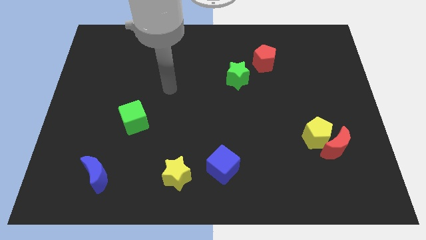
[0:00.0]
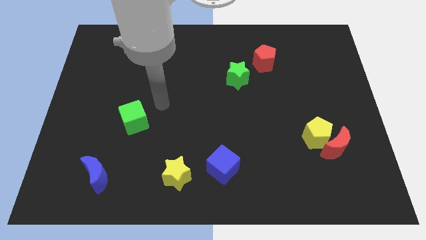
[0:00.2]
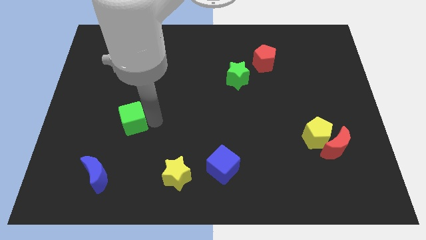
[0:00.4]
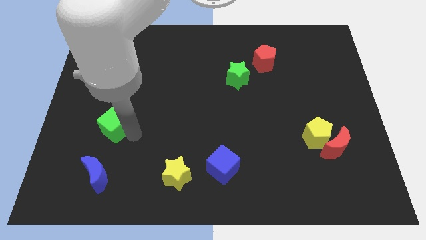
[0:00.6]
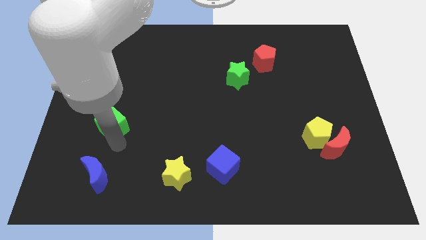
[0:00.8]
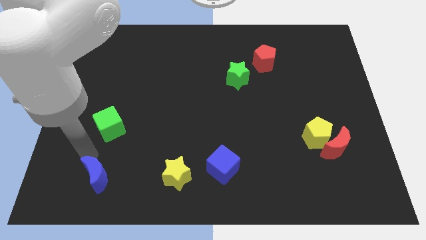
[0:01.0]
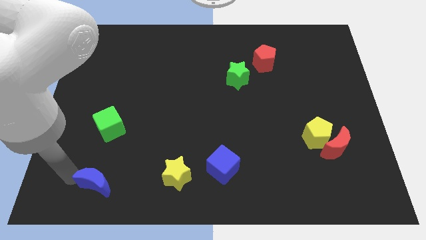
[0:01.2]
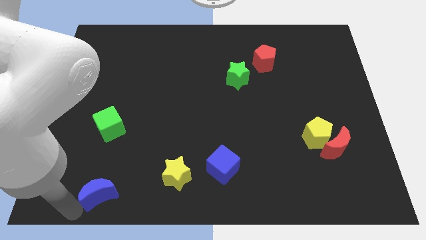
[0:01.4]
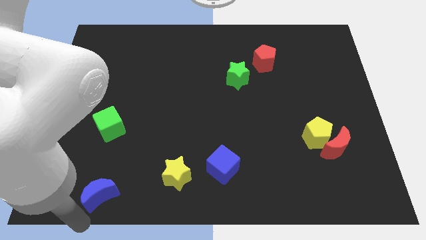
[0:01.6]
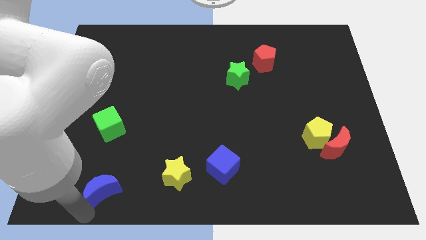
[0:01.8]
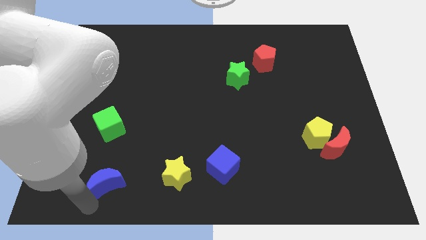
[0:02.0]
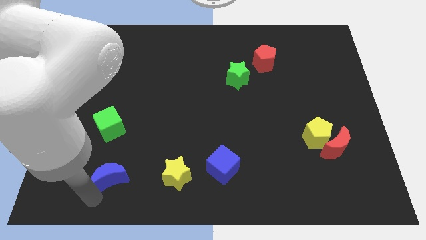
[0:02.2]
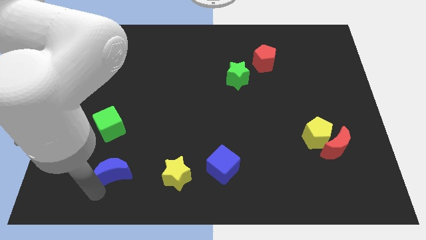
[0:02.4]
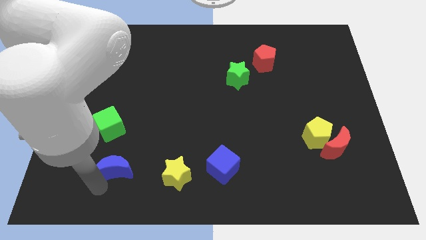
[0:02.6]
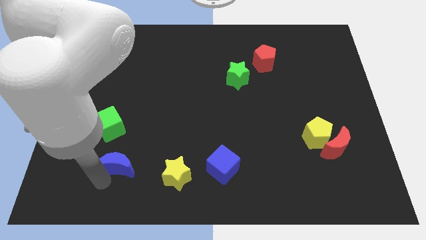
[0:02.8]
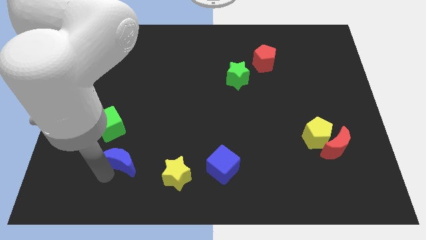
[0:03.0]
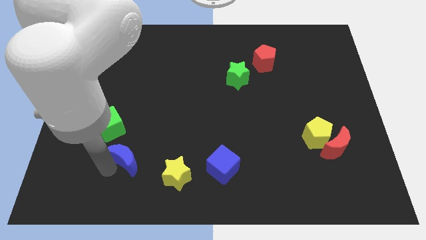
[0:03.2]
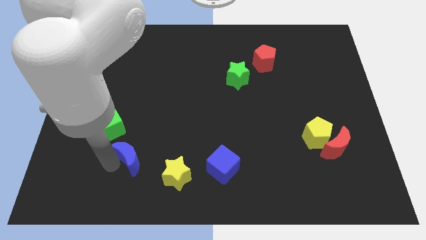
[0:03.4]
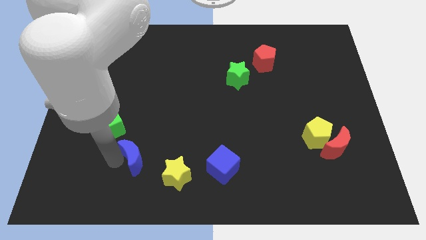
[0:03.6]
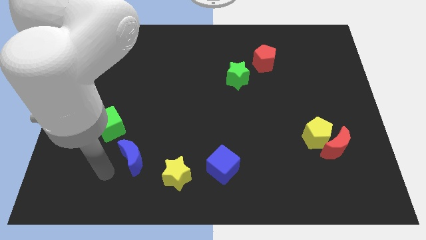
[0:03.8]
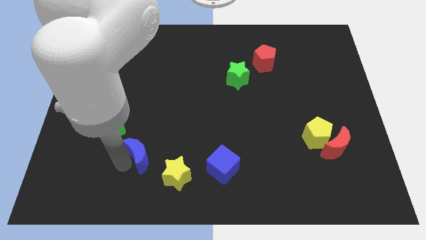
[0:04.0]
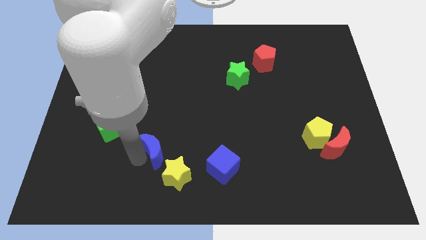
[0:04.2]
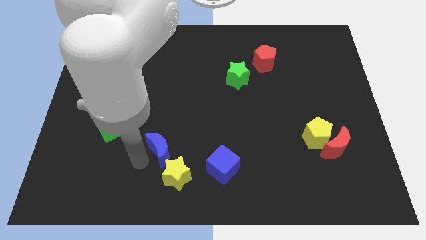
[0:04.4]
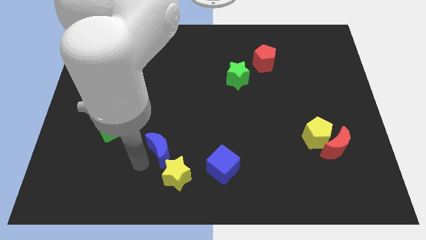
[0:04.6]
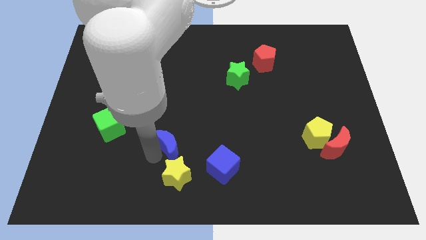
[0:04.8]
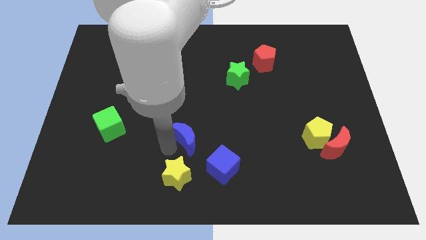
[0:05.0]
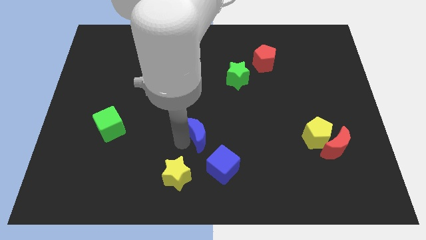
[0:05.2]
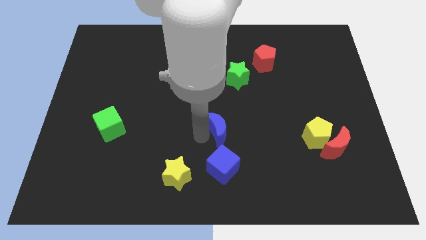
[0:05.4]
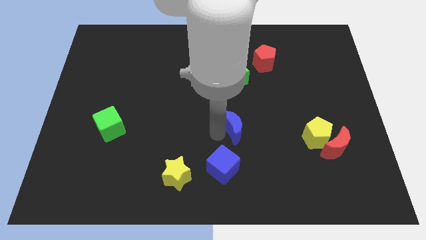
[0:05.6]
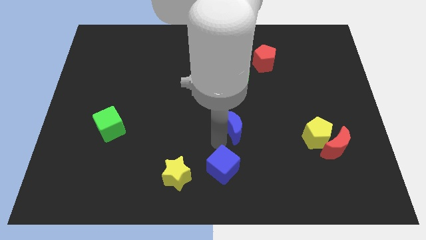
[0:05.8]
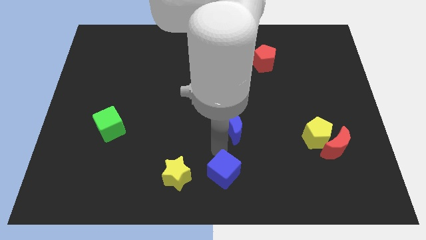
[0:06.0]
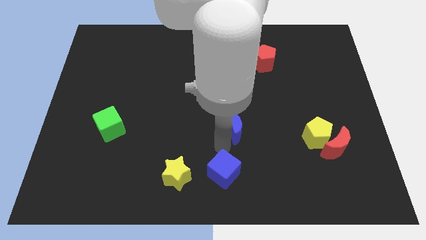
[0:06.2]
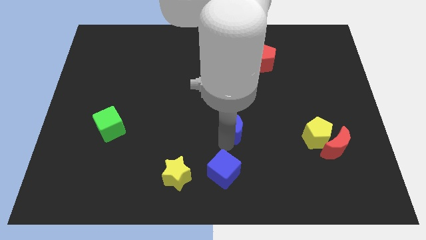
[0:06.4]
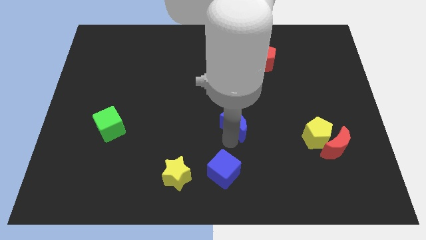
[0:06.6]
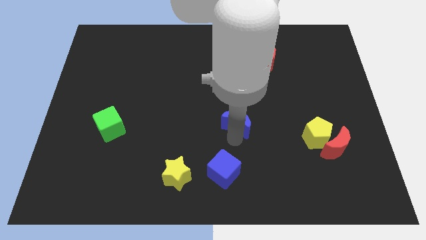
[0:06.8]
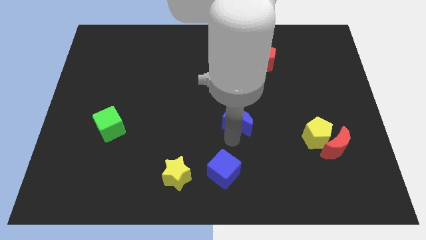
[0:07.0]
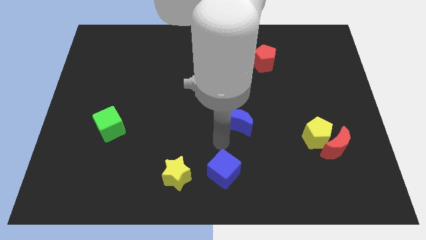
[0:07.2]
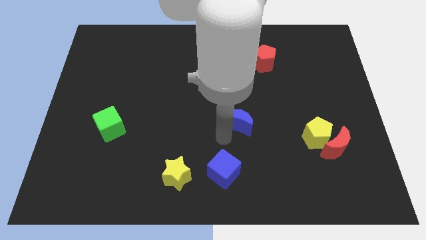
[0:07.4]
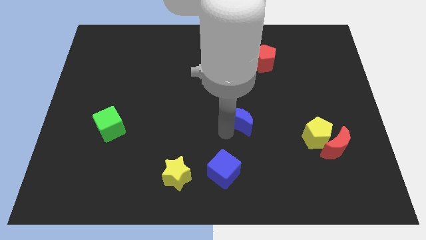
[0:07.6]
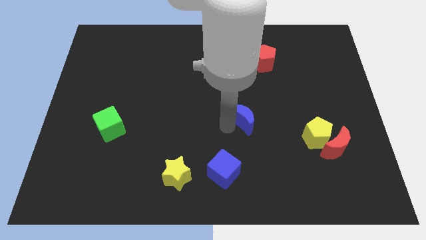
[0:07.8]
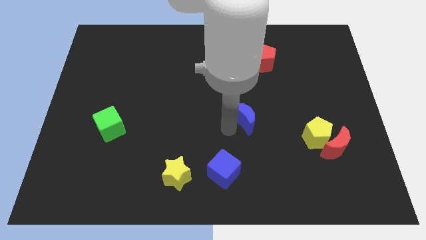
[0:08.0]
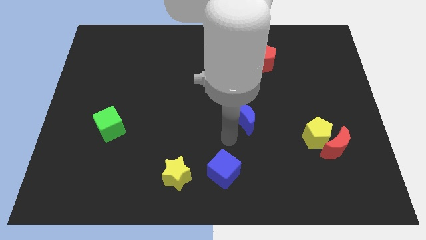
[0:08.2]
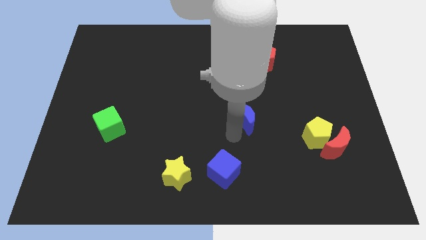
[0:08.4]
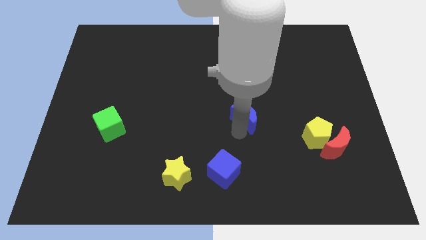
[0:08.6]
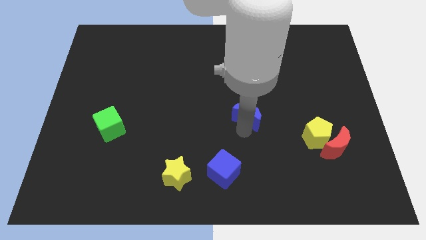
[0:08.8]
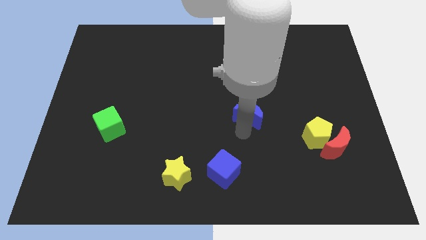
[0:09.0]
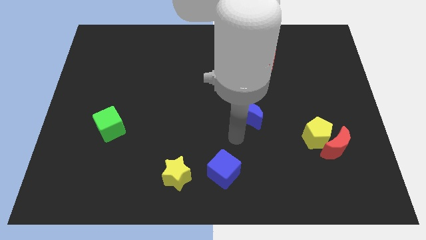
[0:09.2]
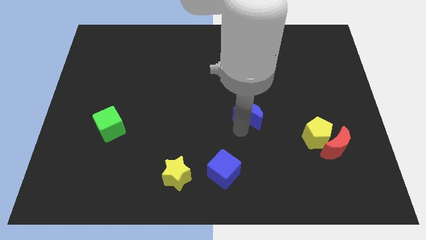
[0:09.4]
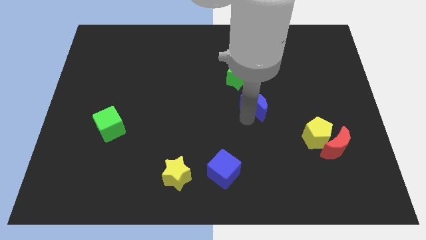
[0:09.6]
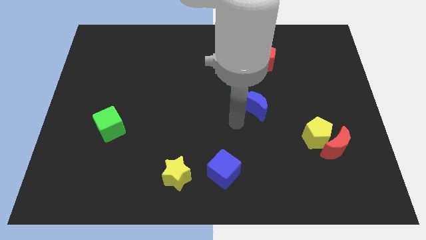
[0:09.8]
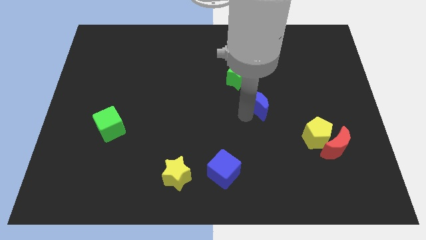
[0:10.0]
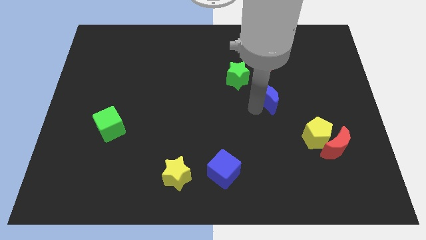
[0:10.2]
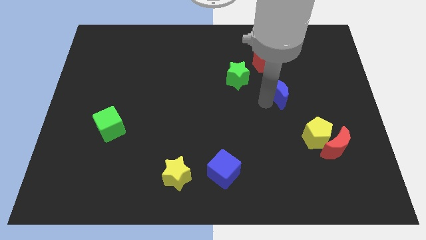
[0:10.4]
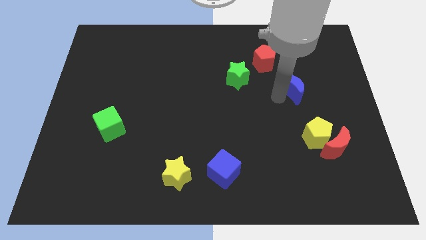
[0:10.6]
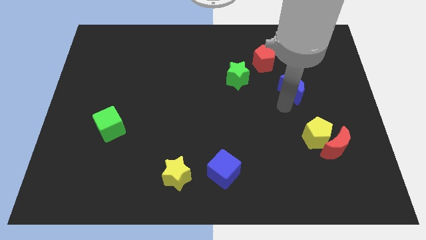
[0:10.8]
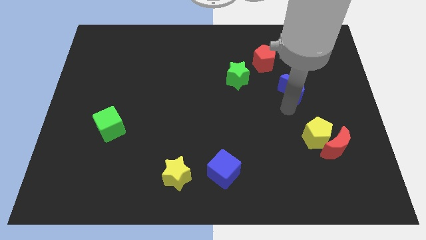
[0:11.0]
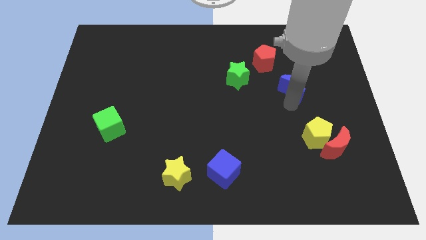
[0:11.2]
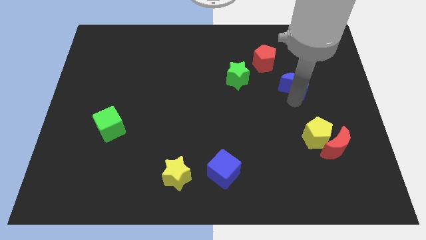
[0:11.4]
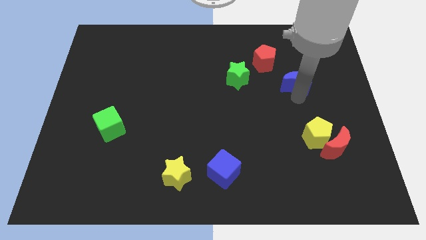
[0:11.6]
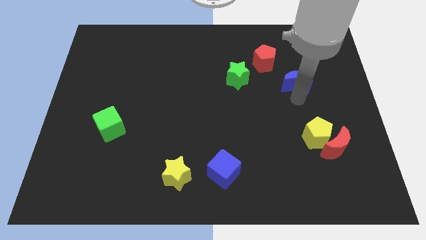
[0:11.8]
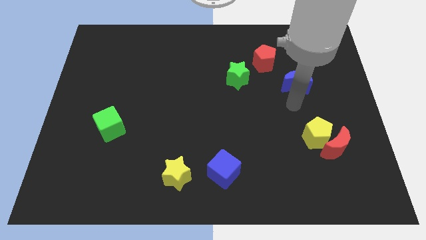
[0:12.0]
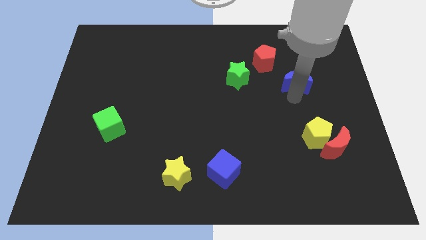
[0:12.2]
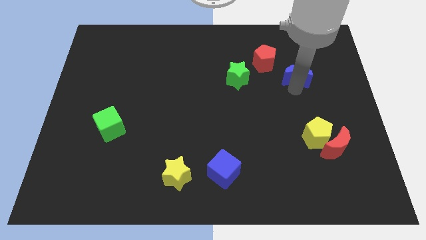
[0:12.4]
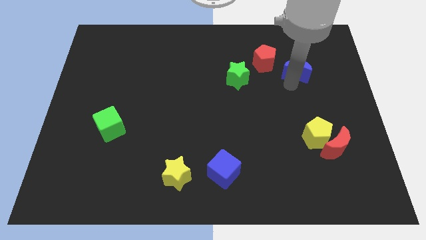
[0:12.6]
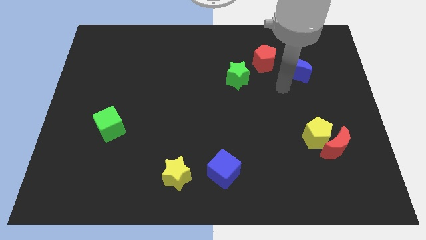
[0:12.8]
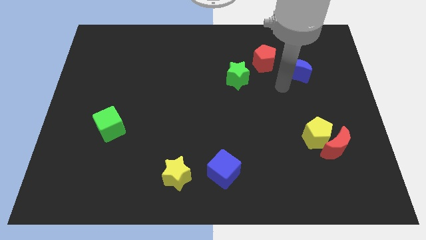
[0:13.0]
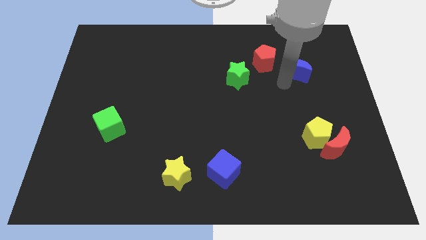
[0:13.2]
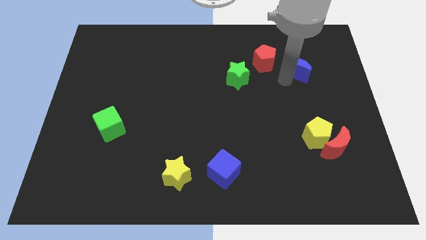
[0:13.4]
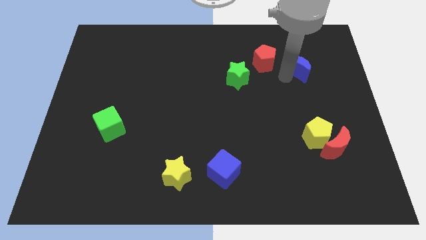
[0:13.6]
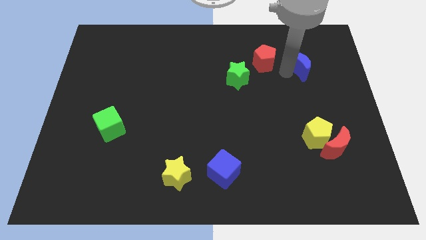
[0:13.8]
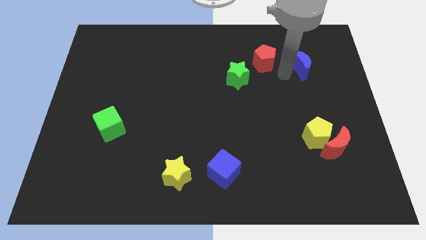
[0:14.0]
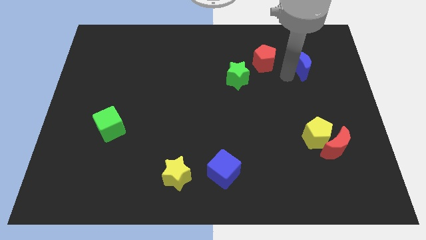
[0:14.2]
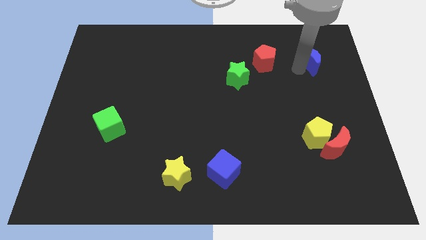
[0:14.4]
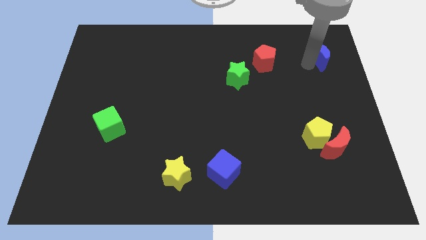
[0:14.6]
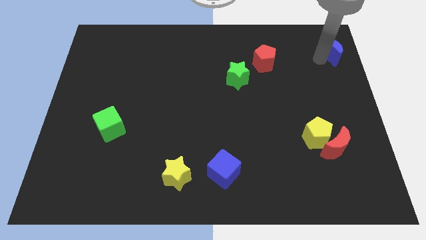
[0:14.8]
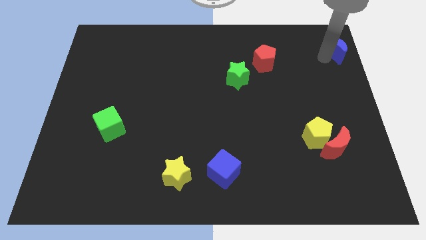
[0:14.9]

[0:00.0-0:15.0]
slide the blue moon to the top right

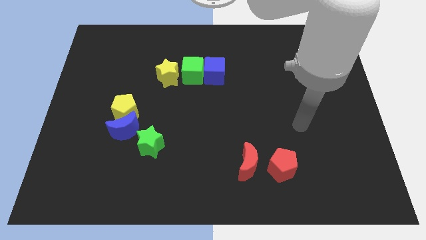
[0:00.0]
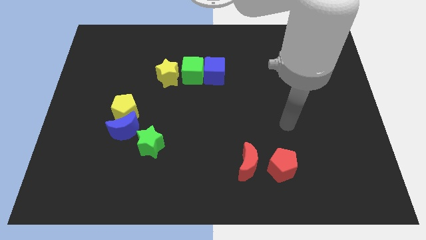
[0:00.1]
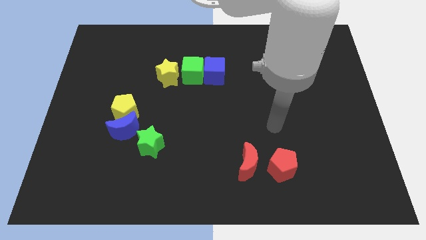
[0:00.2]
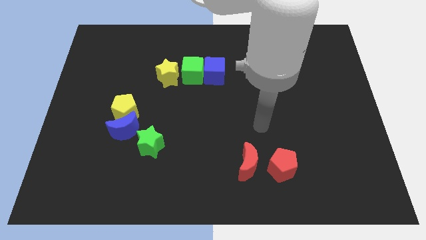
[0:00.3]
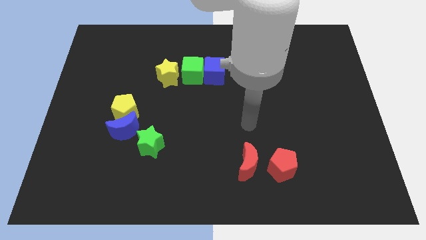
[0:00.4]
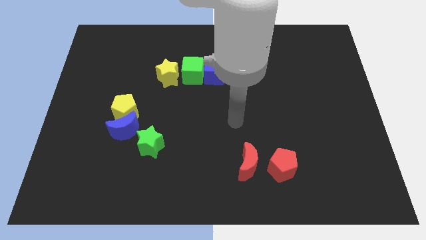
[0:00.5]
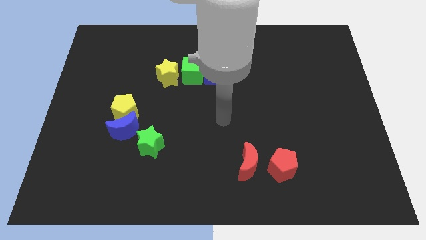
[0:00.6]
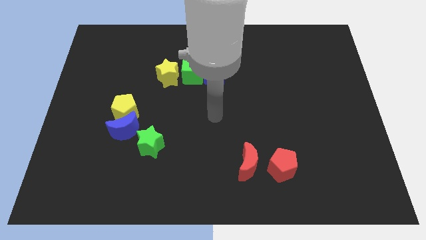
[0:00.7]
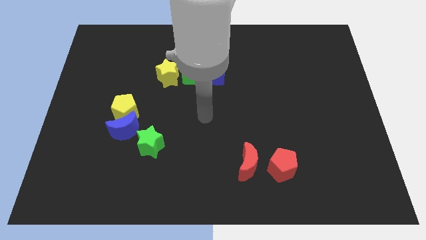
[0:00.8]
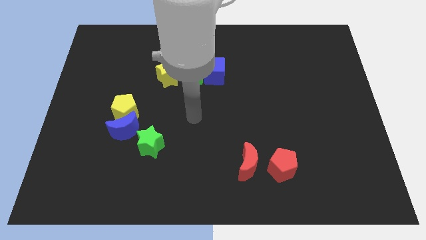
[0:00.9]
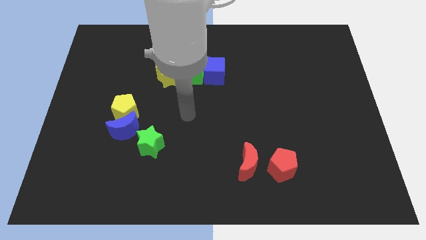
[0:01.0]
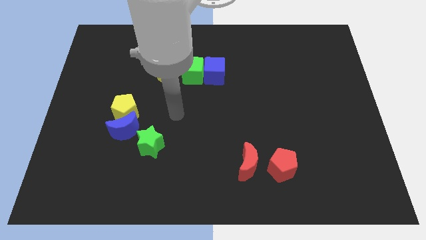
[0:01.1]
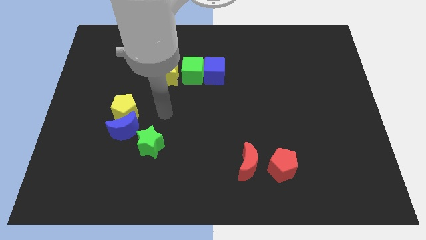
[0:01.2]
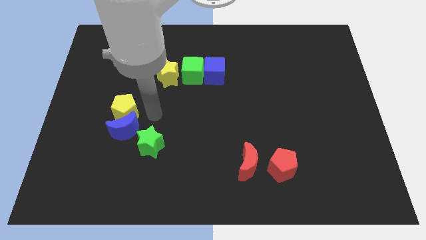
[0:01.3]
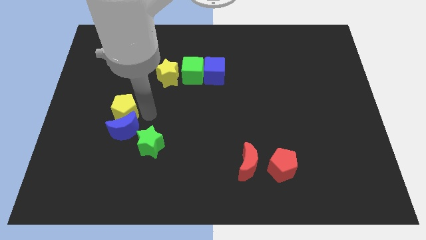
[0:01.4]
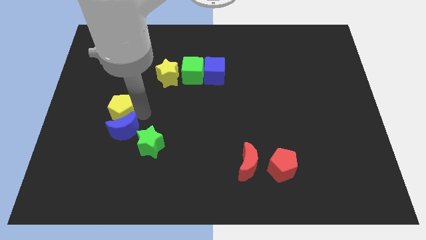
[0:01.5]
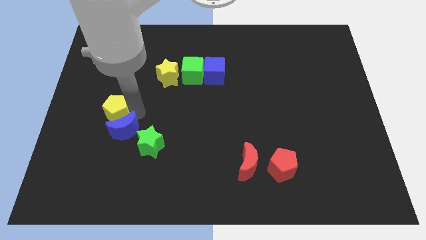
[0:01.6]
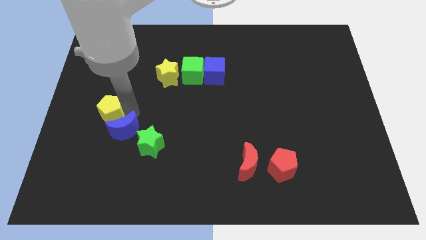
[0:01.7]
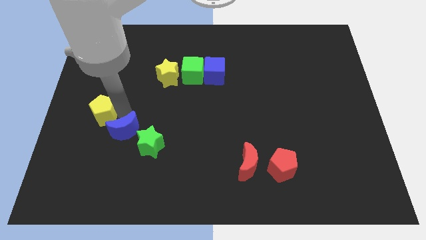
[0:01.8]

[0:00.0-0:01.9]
put the yellow pentagon to the left side of the board
